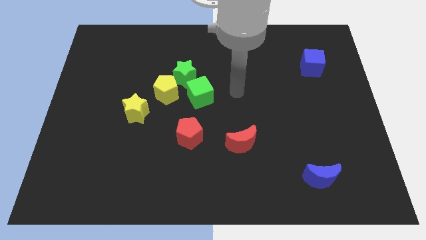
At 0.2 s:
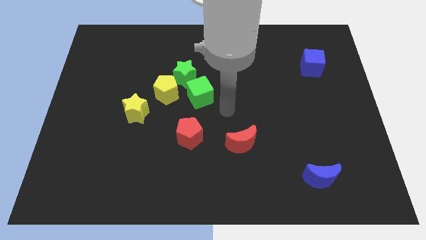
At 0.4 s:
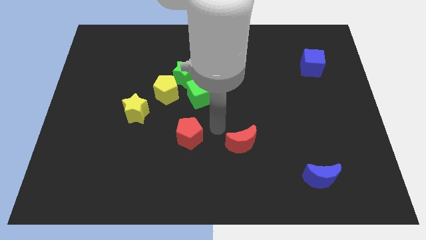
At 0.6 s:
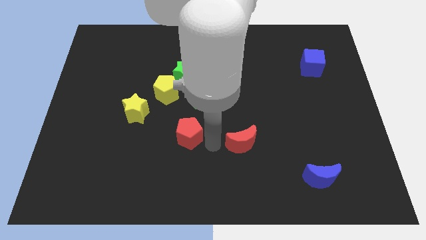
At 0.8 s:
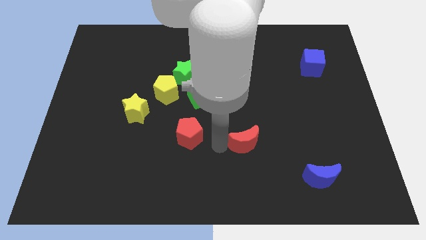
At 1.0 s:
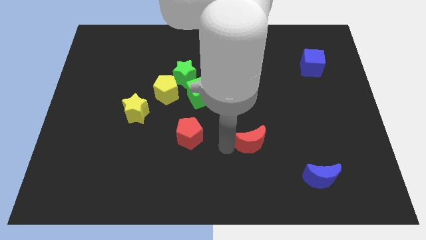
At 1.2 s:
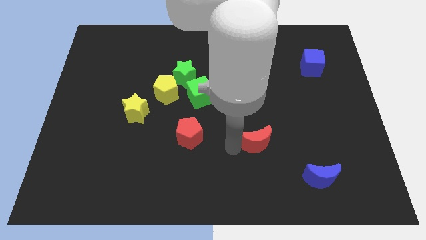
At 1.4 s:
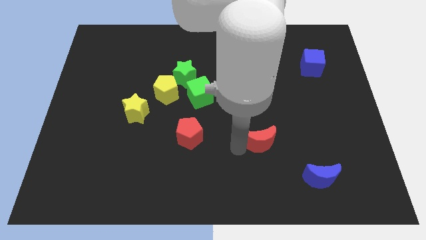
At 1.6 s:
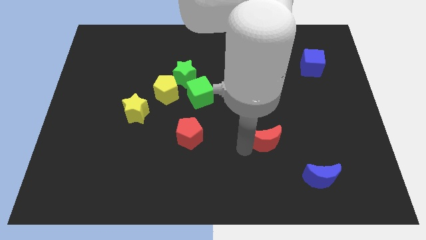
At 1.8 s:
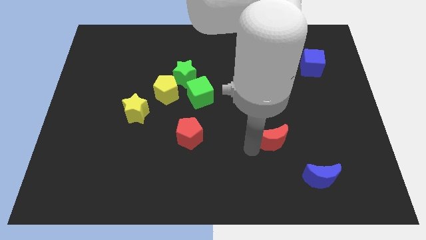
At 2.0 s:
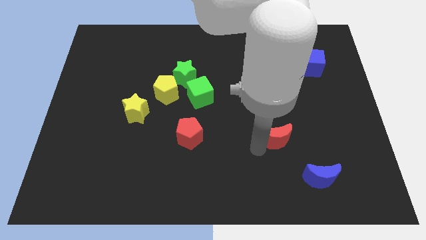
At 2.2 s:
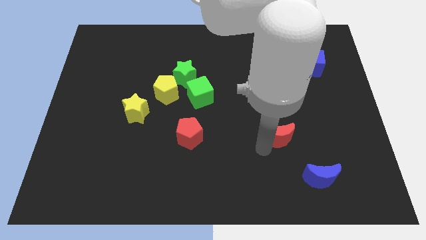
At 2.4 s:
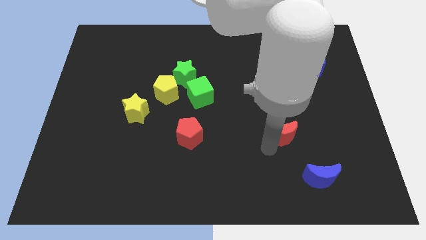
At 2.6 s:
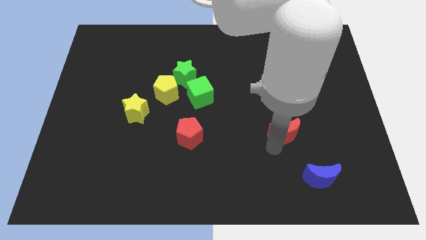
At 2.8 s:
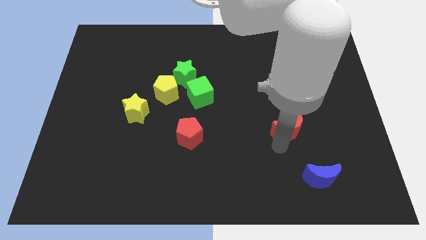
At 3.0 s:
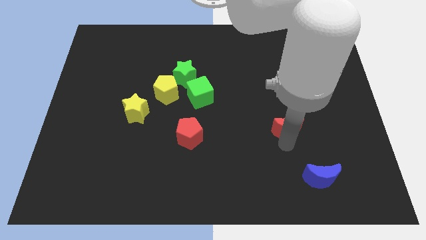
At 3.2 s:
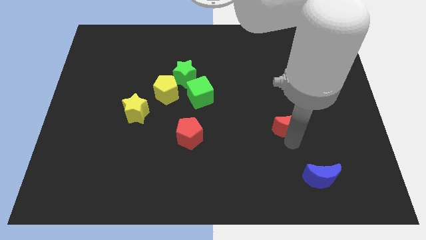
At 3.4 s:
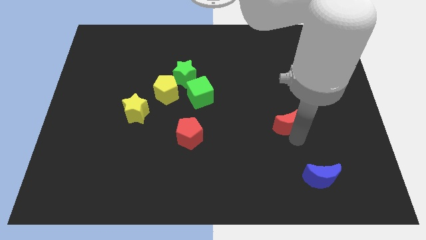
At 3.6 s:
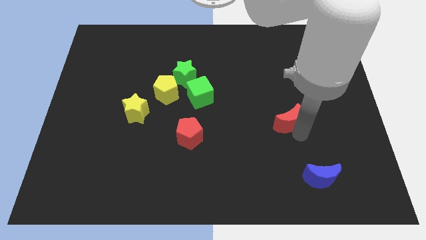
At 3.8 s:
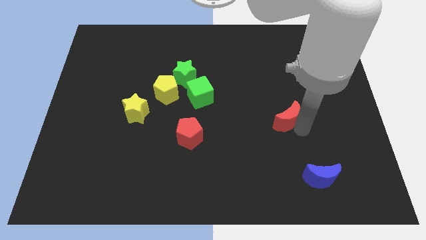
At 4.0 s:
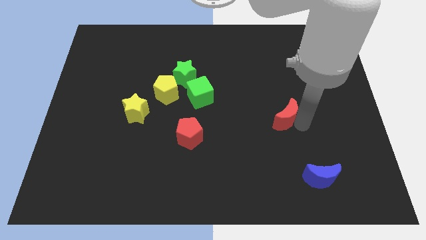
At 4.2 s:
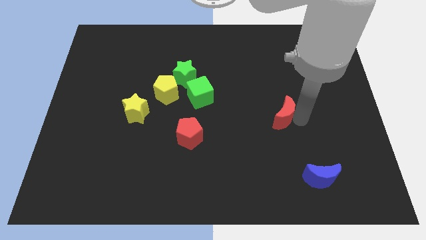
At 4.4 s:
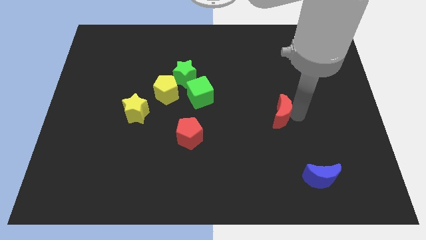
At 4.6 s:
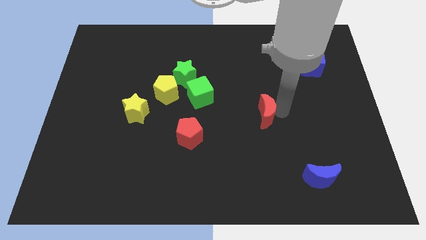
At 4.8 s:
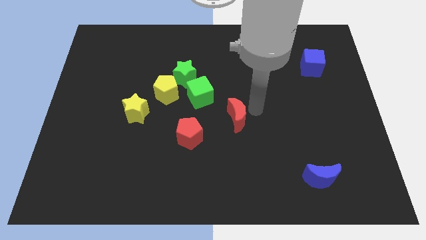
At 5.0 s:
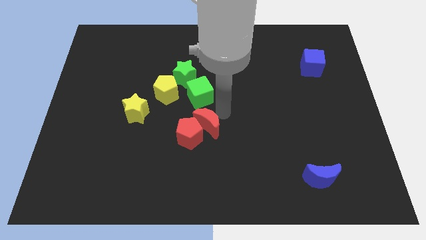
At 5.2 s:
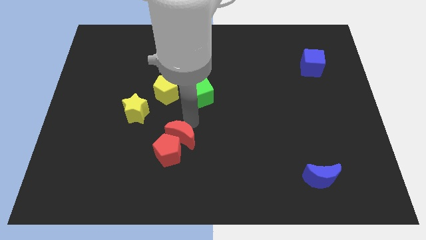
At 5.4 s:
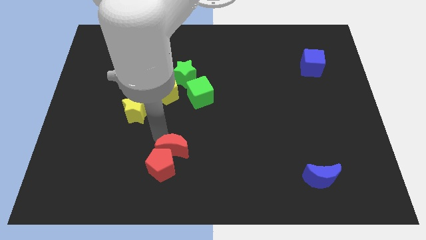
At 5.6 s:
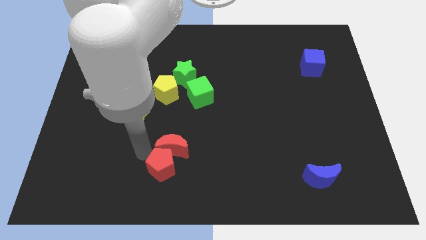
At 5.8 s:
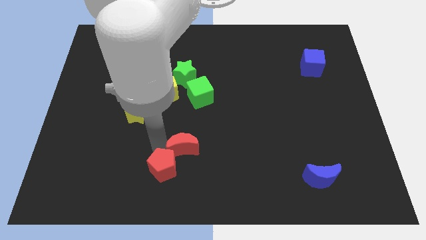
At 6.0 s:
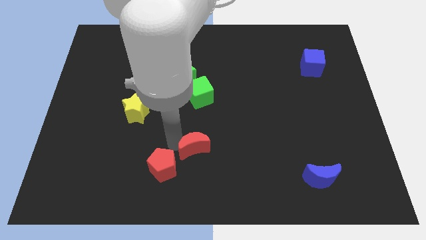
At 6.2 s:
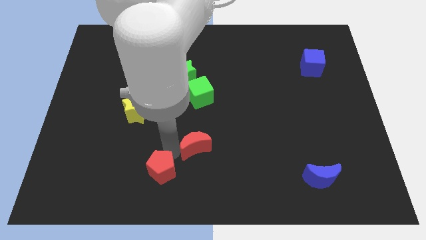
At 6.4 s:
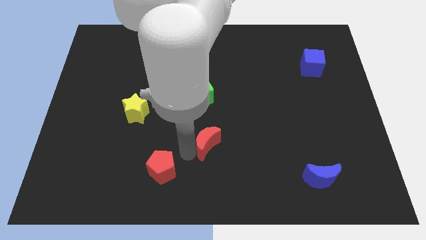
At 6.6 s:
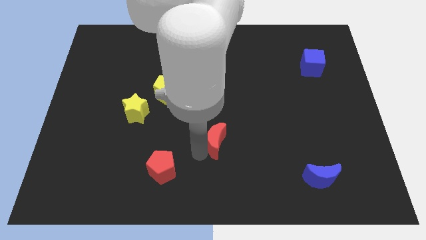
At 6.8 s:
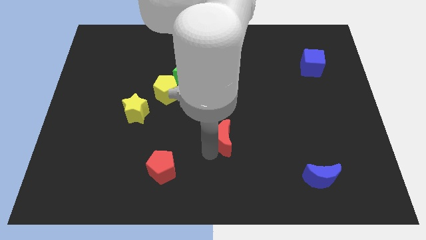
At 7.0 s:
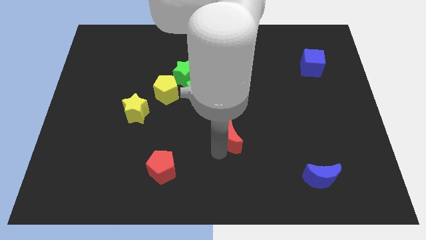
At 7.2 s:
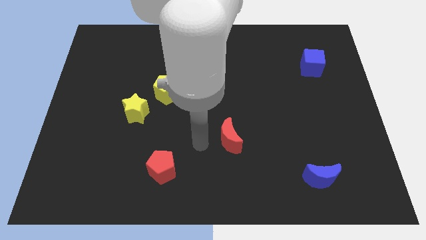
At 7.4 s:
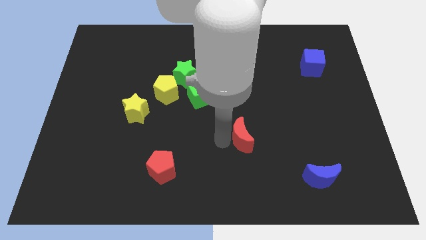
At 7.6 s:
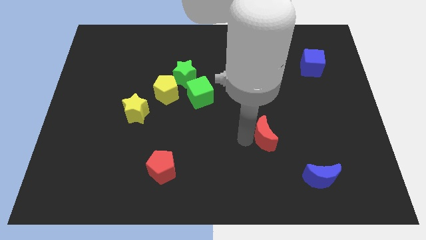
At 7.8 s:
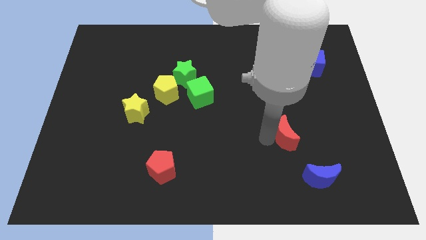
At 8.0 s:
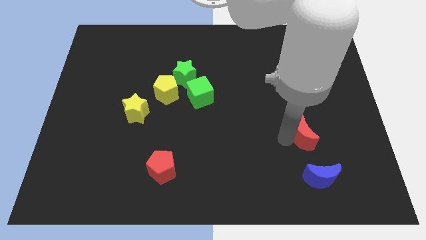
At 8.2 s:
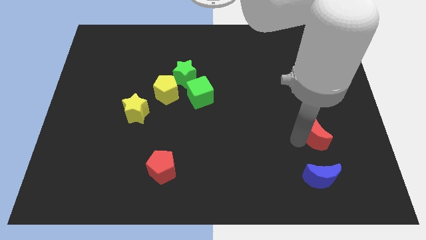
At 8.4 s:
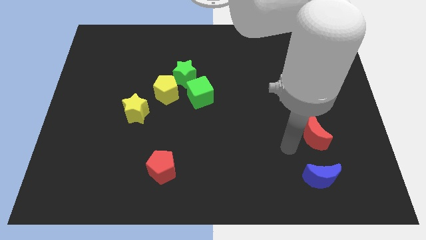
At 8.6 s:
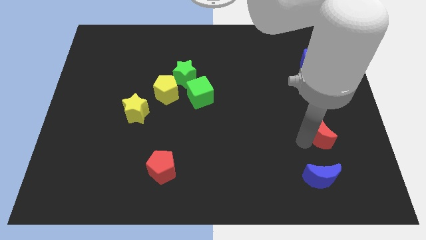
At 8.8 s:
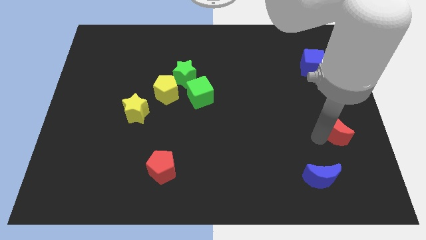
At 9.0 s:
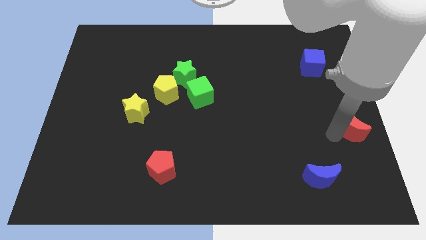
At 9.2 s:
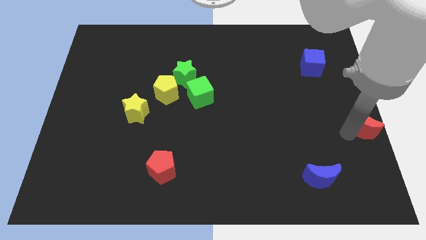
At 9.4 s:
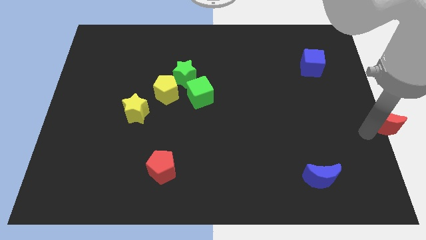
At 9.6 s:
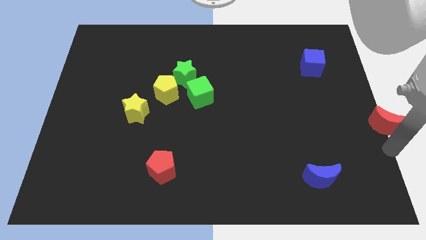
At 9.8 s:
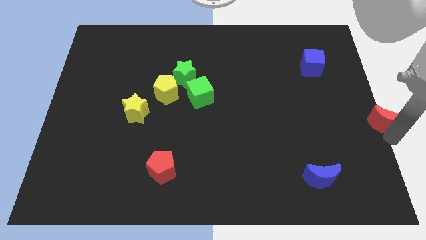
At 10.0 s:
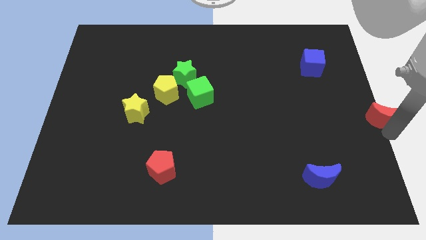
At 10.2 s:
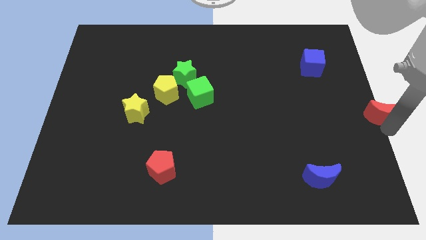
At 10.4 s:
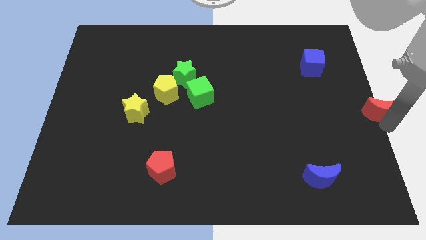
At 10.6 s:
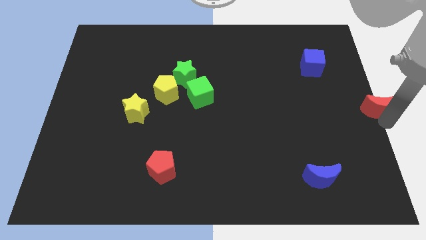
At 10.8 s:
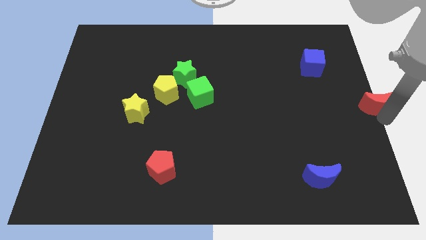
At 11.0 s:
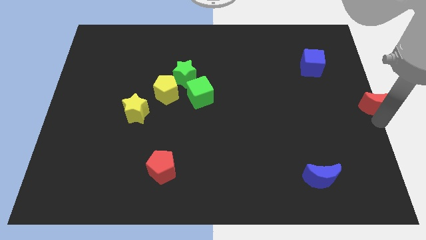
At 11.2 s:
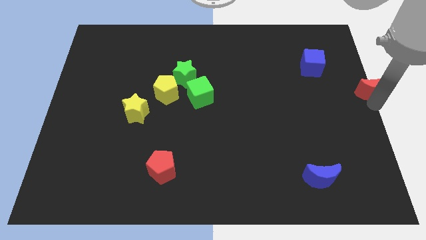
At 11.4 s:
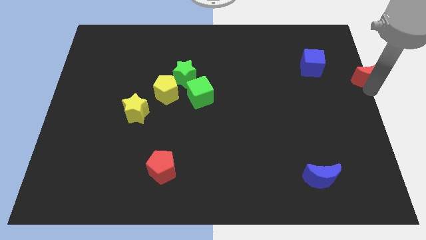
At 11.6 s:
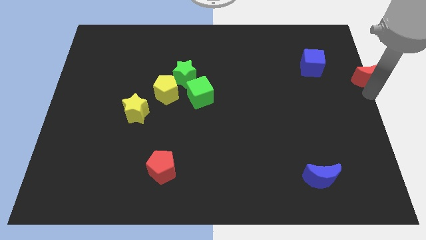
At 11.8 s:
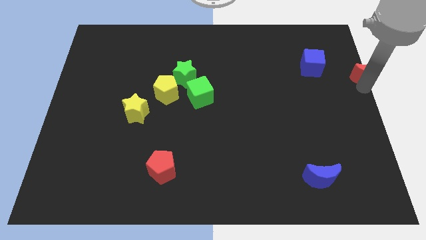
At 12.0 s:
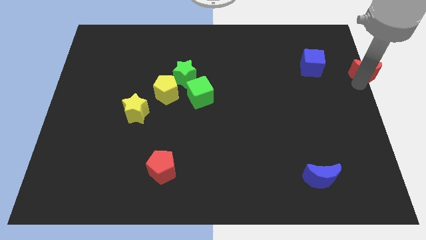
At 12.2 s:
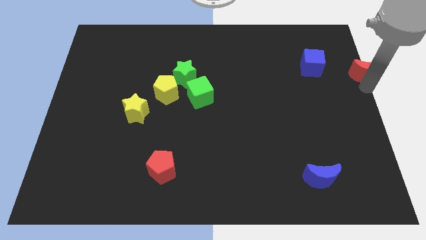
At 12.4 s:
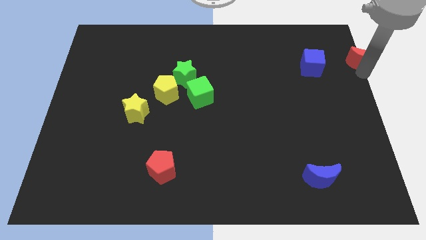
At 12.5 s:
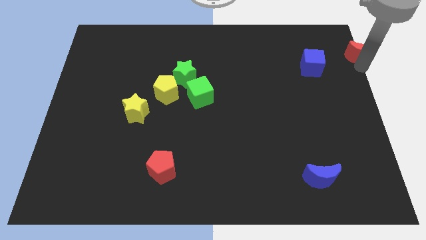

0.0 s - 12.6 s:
push the red moon to the top right corner
